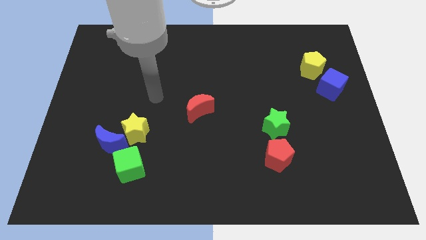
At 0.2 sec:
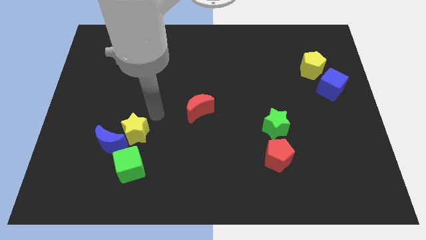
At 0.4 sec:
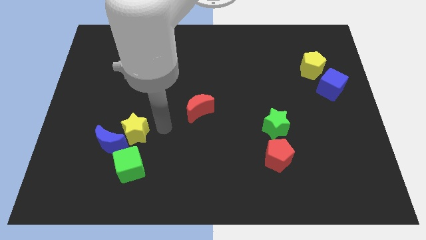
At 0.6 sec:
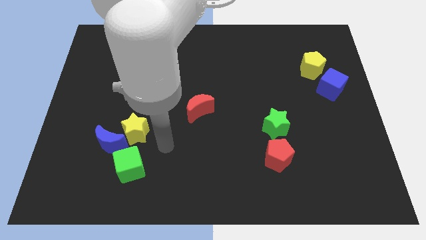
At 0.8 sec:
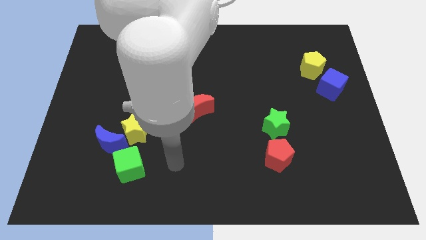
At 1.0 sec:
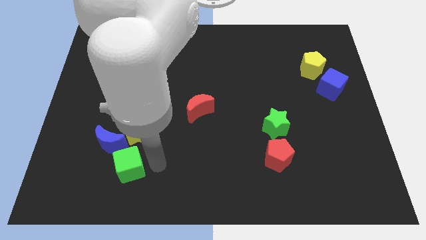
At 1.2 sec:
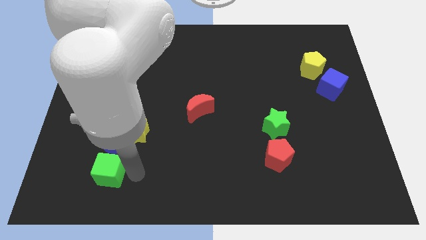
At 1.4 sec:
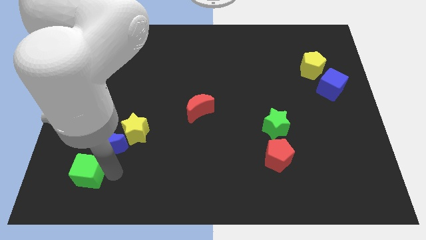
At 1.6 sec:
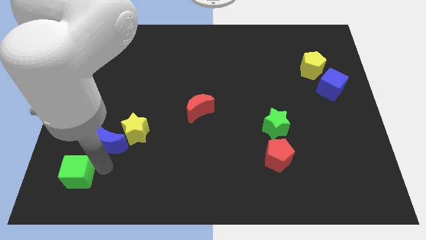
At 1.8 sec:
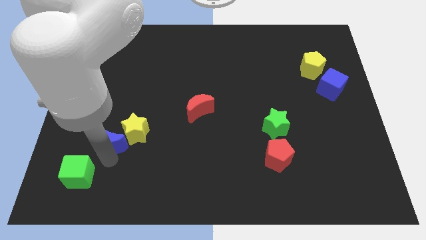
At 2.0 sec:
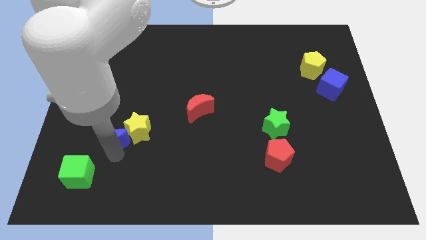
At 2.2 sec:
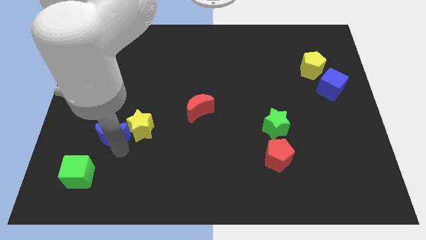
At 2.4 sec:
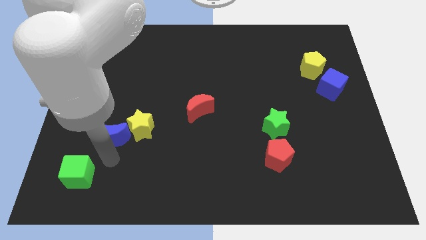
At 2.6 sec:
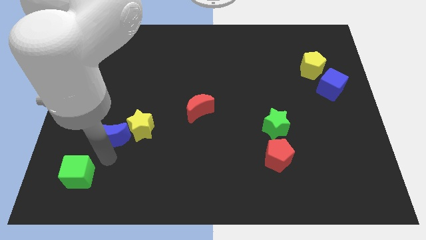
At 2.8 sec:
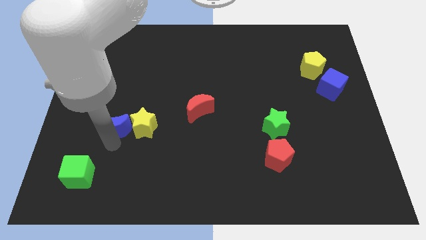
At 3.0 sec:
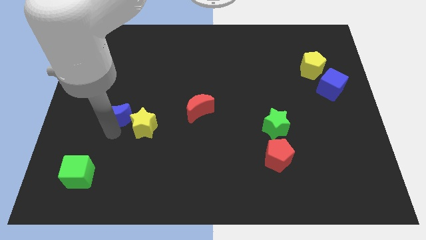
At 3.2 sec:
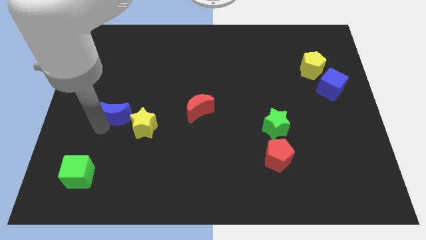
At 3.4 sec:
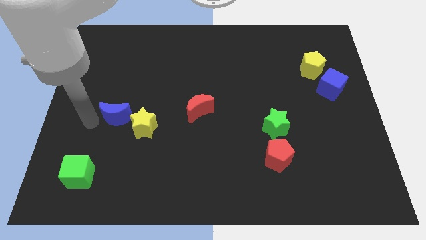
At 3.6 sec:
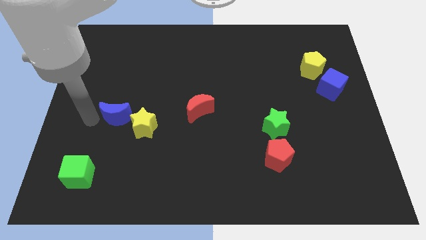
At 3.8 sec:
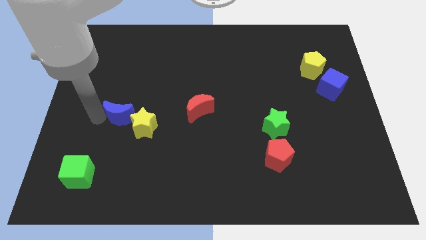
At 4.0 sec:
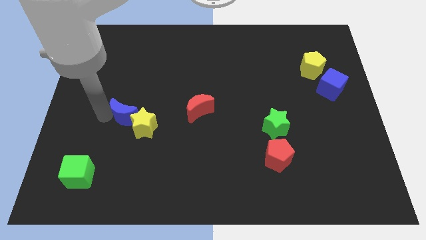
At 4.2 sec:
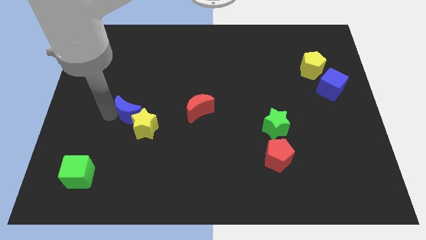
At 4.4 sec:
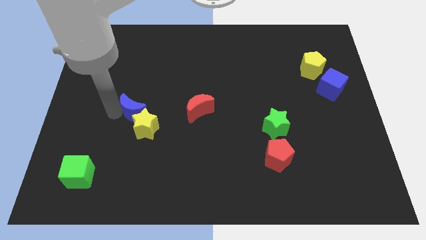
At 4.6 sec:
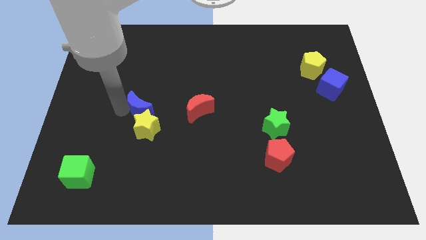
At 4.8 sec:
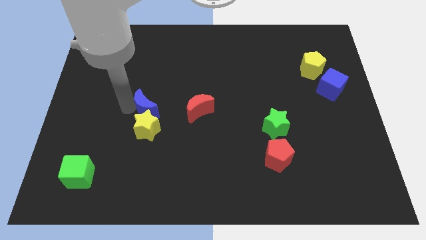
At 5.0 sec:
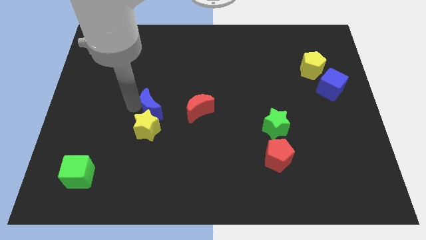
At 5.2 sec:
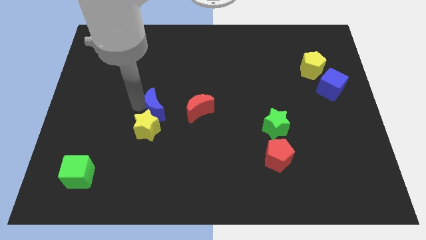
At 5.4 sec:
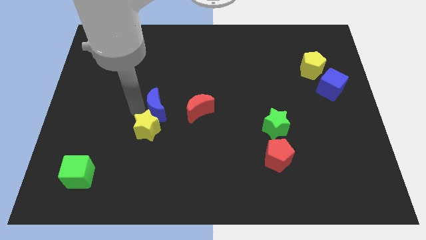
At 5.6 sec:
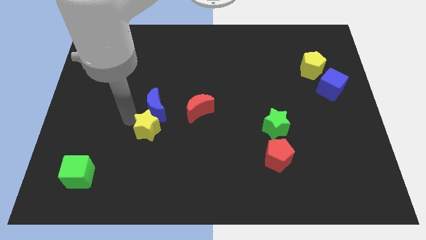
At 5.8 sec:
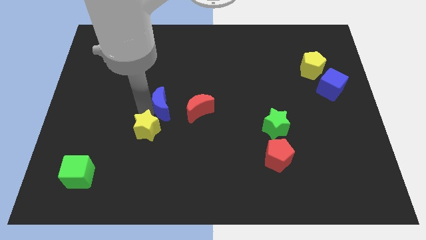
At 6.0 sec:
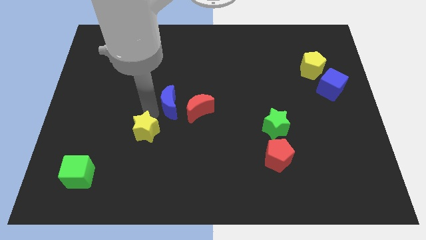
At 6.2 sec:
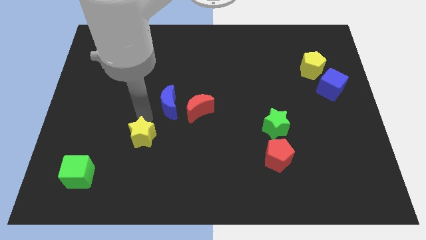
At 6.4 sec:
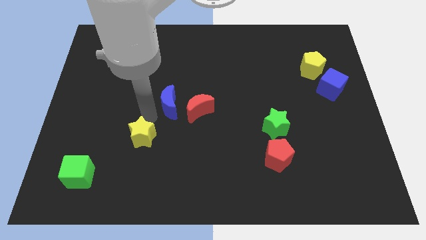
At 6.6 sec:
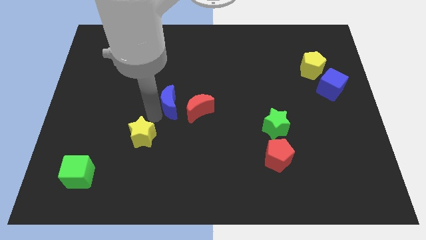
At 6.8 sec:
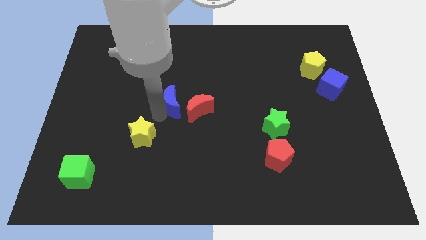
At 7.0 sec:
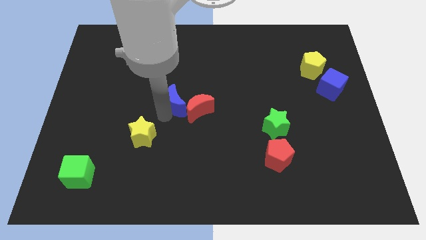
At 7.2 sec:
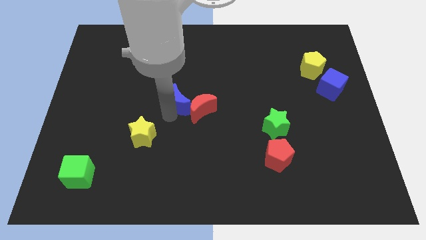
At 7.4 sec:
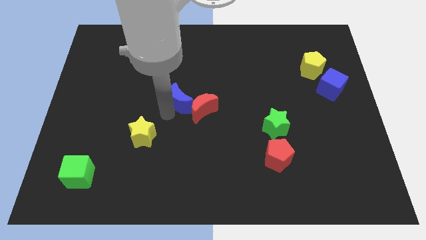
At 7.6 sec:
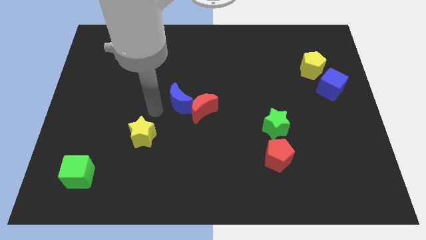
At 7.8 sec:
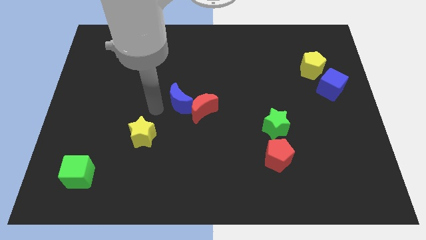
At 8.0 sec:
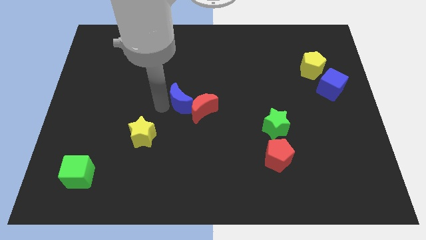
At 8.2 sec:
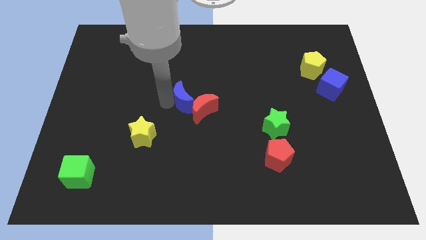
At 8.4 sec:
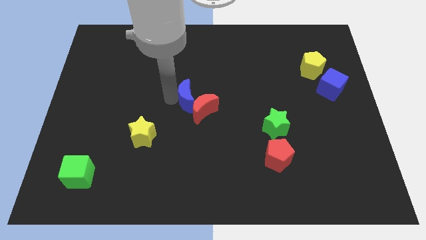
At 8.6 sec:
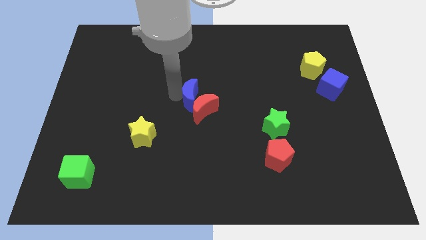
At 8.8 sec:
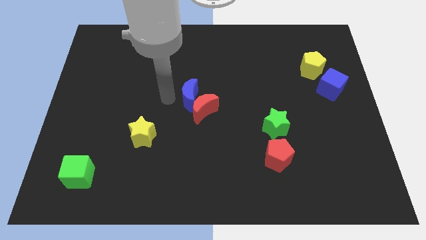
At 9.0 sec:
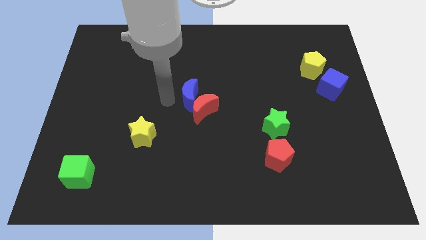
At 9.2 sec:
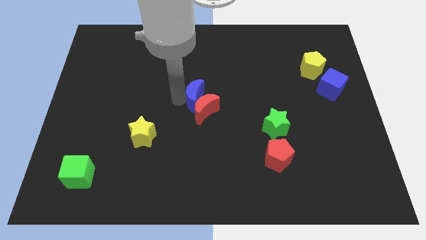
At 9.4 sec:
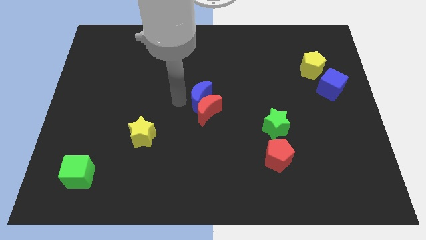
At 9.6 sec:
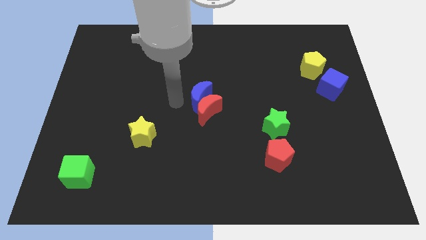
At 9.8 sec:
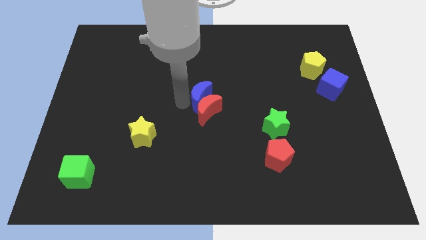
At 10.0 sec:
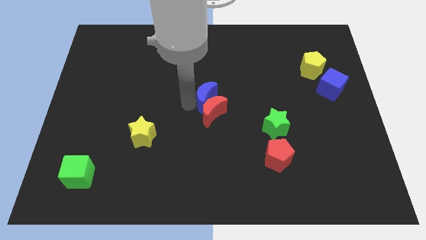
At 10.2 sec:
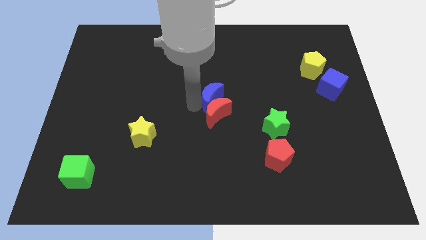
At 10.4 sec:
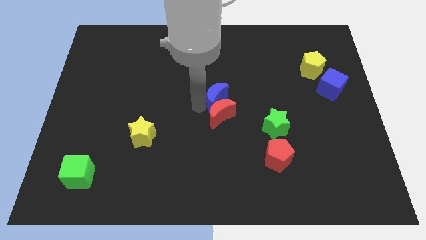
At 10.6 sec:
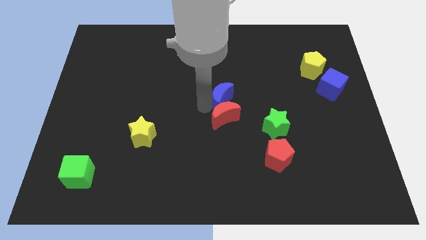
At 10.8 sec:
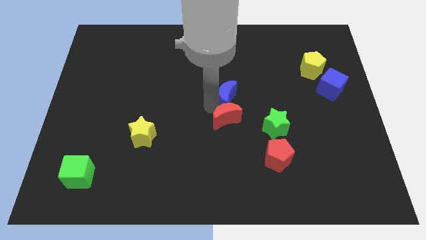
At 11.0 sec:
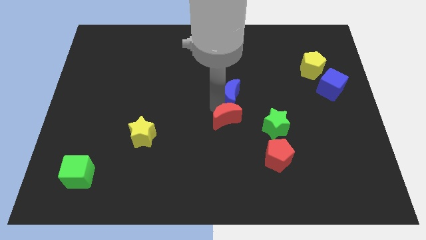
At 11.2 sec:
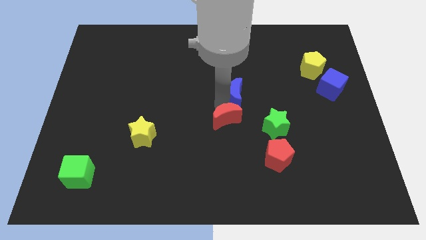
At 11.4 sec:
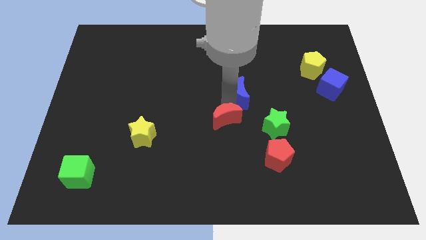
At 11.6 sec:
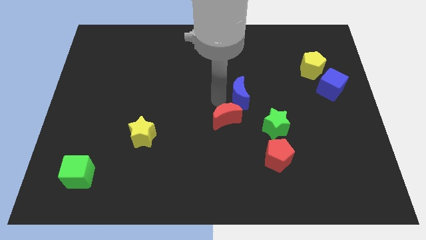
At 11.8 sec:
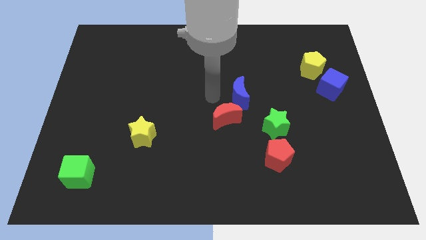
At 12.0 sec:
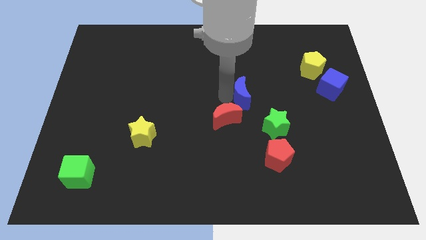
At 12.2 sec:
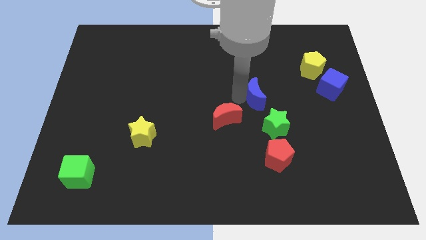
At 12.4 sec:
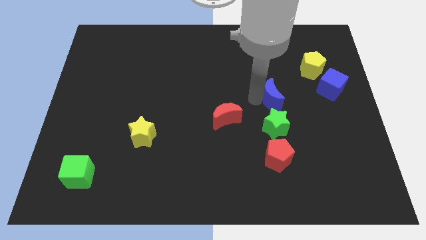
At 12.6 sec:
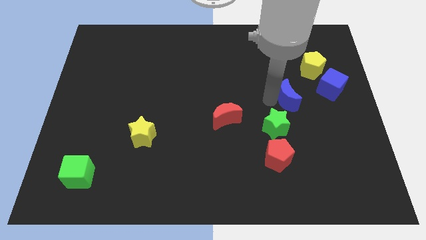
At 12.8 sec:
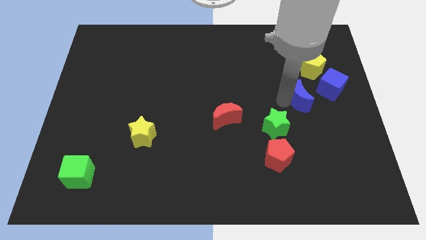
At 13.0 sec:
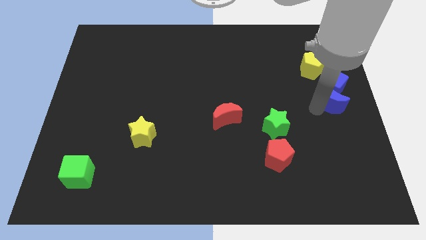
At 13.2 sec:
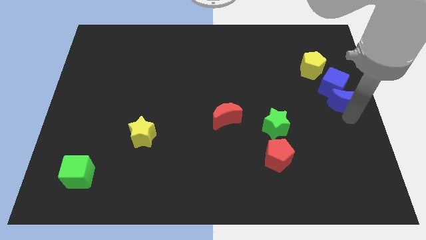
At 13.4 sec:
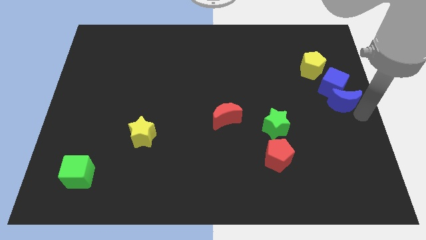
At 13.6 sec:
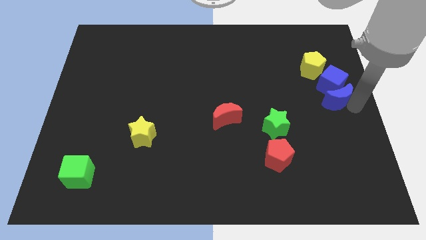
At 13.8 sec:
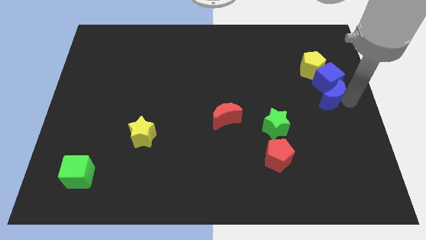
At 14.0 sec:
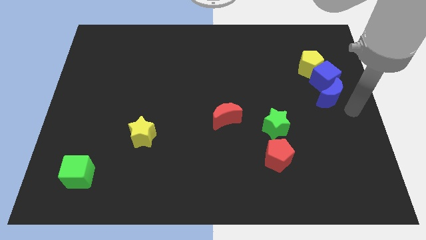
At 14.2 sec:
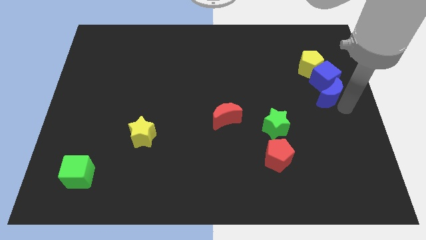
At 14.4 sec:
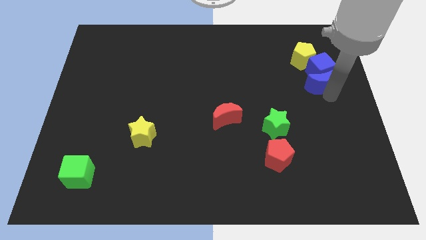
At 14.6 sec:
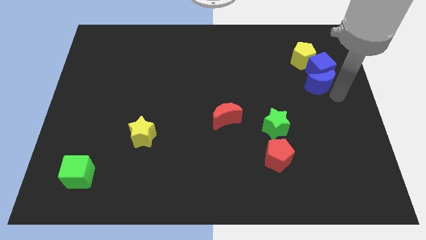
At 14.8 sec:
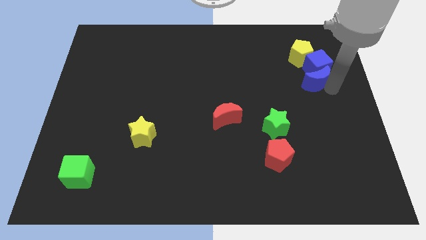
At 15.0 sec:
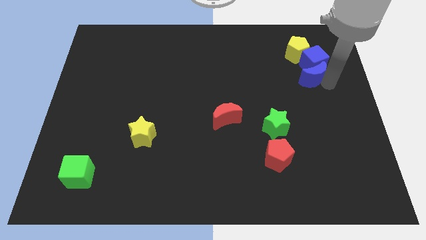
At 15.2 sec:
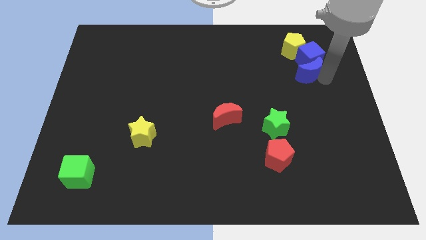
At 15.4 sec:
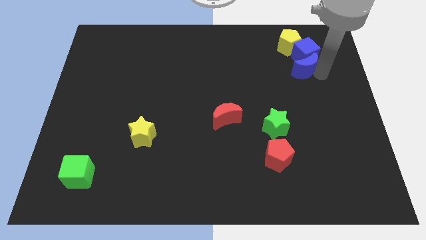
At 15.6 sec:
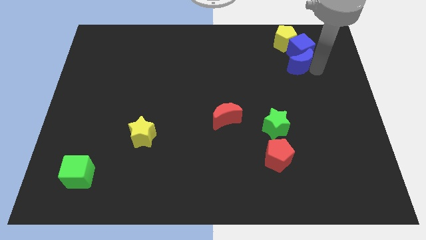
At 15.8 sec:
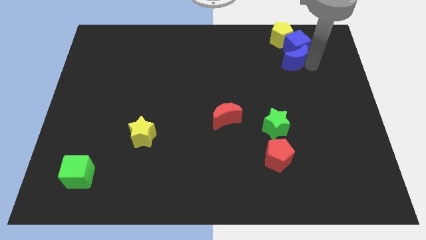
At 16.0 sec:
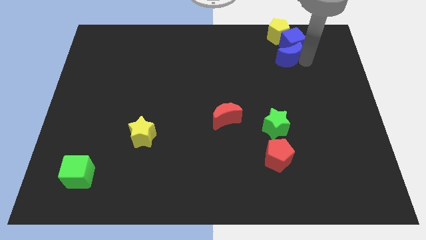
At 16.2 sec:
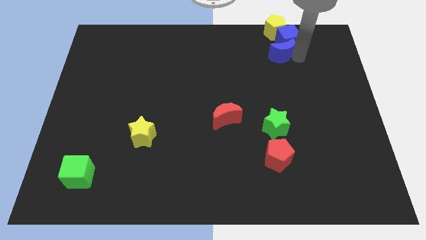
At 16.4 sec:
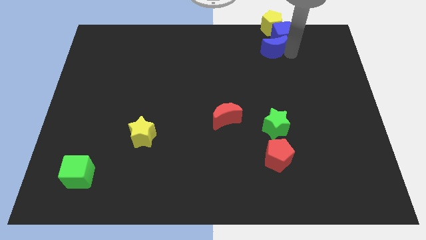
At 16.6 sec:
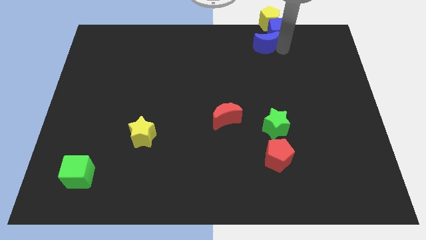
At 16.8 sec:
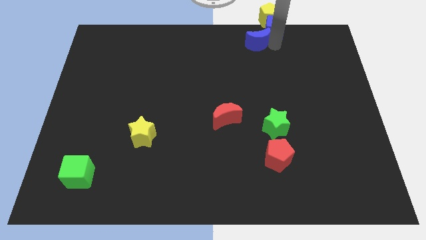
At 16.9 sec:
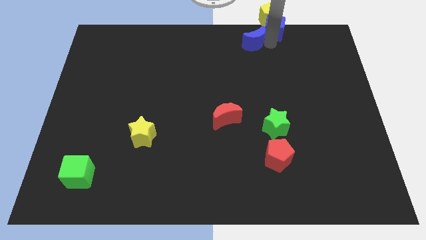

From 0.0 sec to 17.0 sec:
push the blue moon to the top
